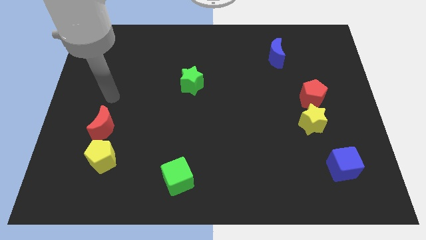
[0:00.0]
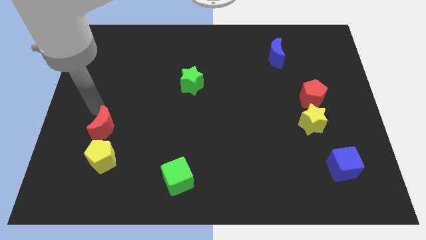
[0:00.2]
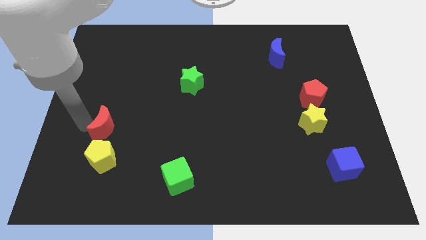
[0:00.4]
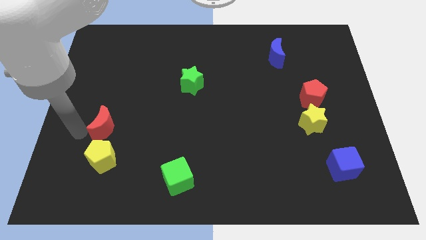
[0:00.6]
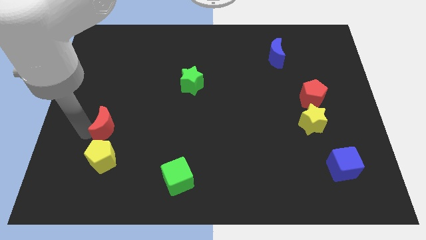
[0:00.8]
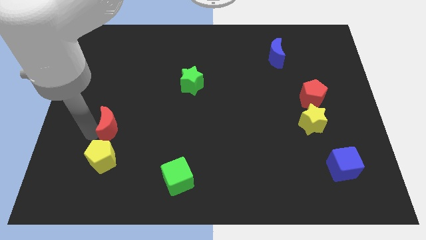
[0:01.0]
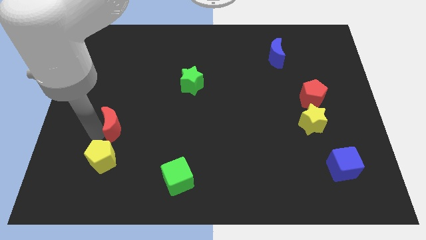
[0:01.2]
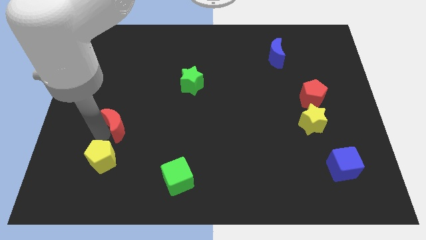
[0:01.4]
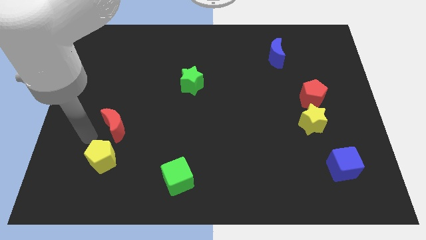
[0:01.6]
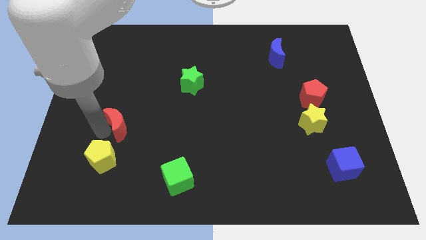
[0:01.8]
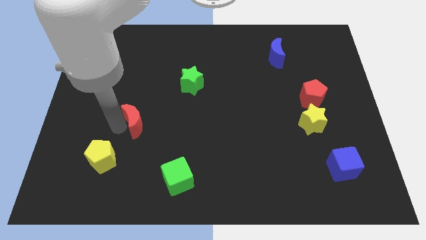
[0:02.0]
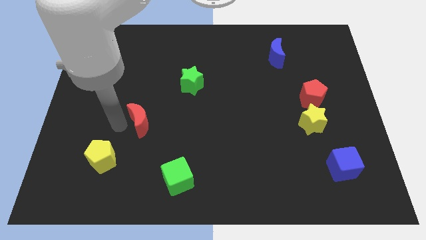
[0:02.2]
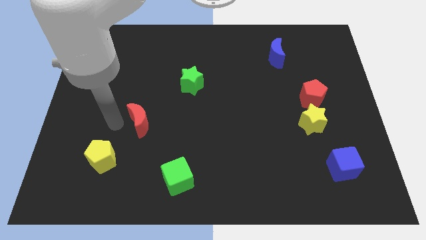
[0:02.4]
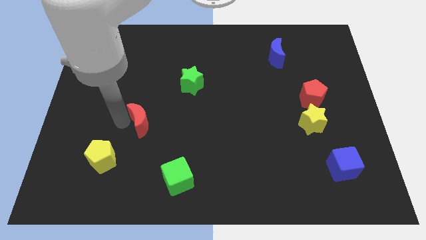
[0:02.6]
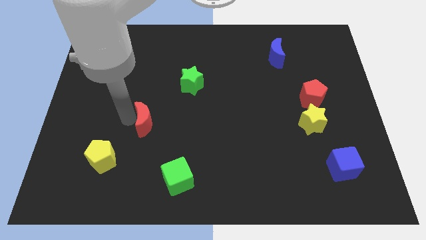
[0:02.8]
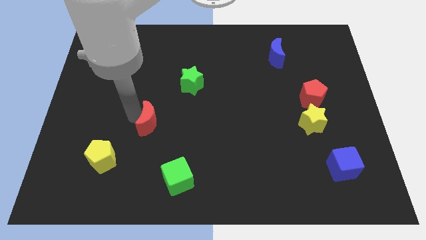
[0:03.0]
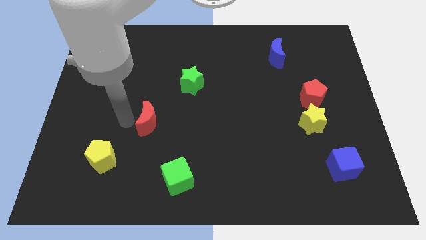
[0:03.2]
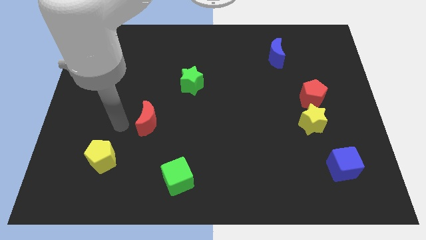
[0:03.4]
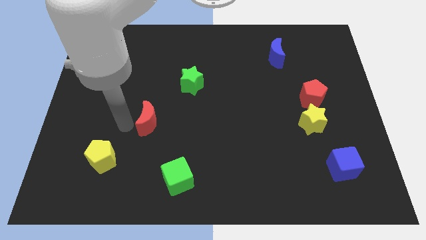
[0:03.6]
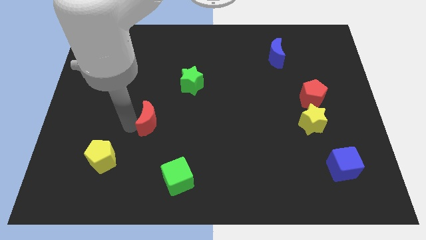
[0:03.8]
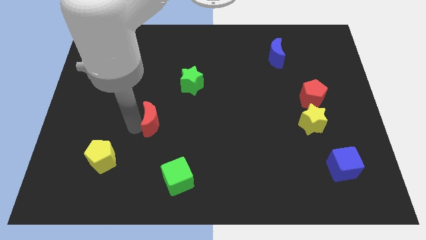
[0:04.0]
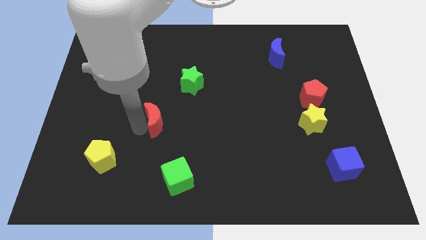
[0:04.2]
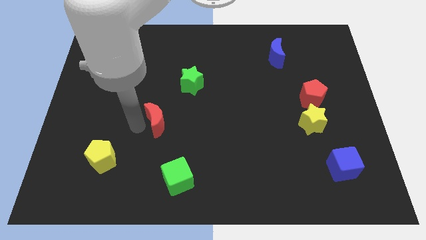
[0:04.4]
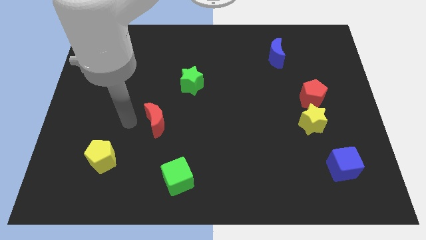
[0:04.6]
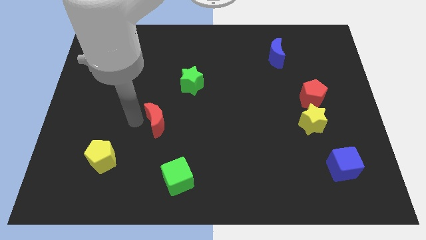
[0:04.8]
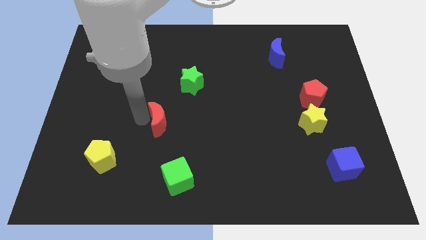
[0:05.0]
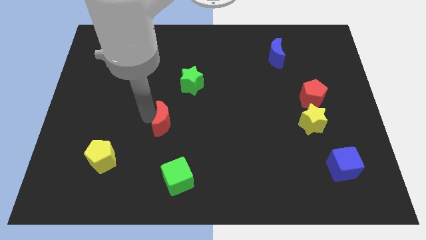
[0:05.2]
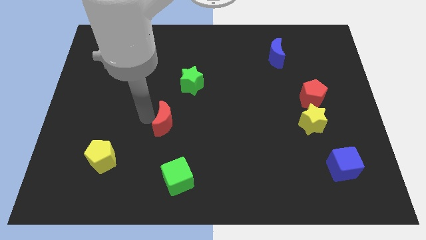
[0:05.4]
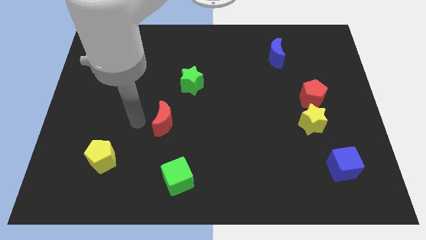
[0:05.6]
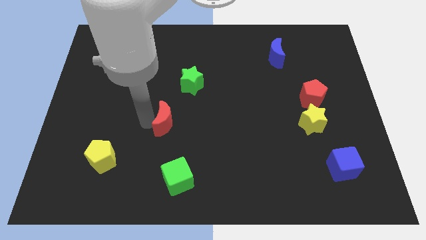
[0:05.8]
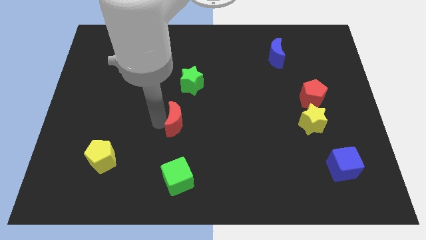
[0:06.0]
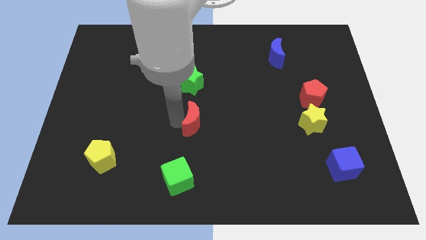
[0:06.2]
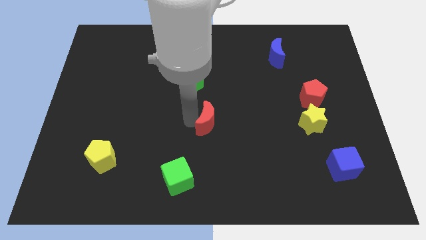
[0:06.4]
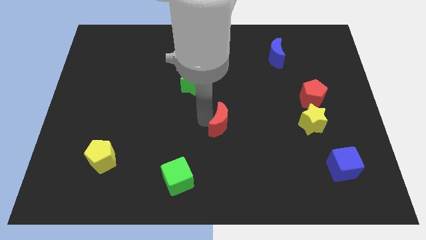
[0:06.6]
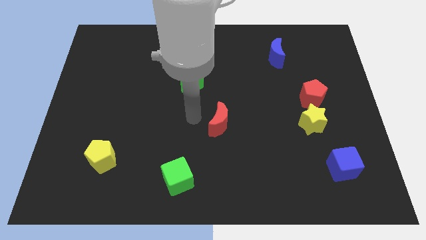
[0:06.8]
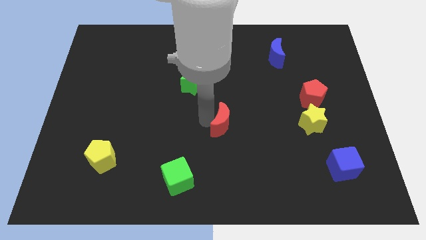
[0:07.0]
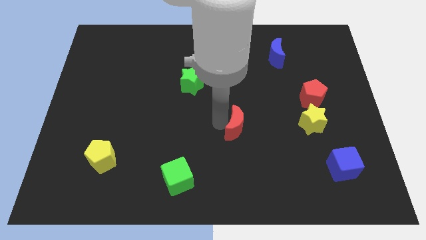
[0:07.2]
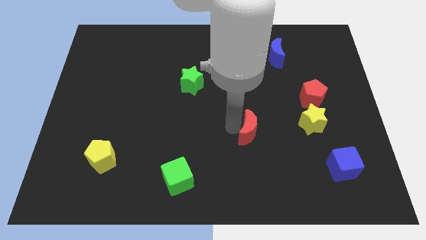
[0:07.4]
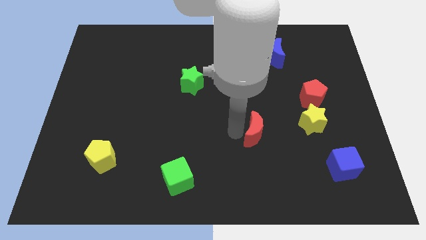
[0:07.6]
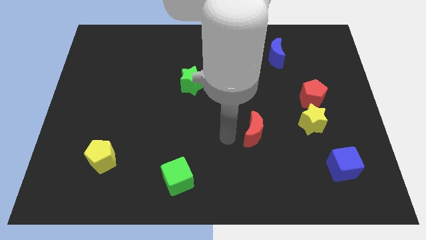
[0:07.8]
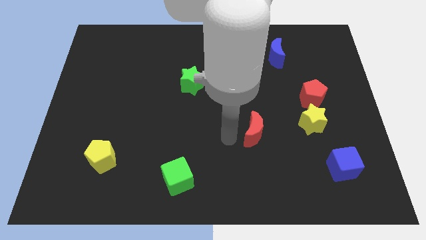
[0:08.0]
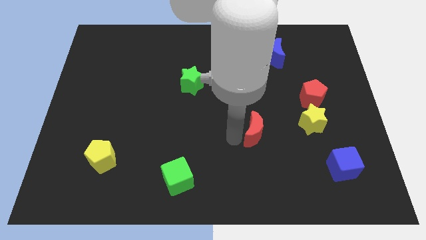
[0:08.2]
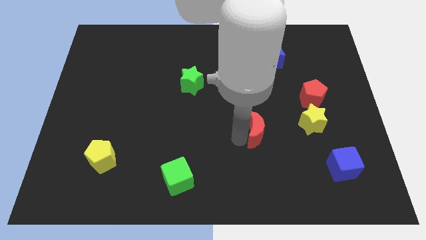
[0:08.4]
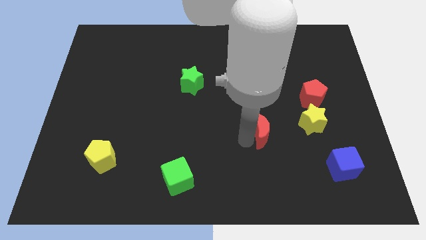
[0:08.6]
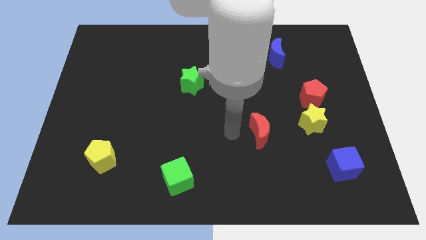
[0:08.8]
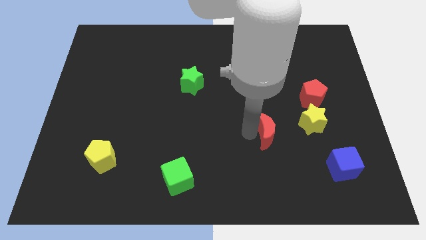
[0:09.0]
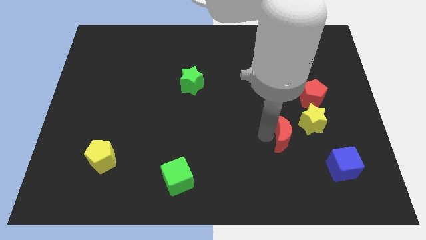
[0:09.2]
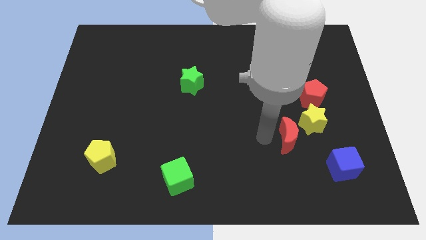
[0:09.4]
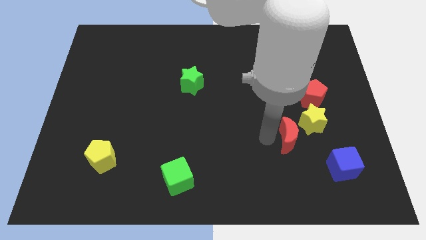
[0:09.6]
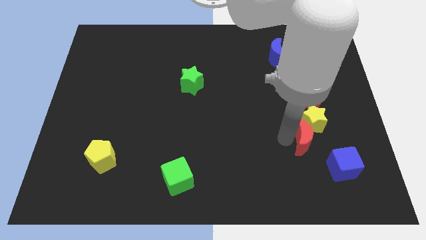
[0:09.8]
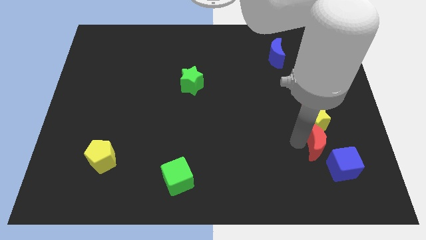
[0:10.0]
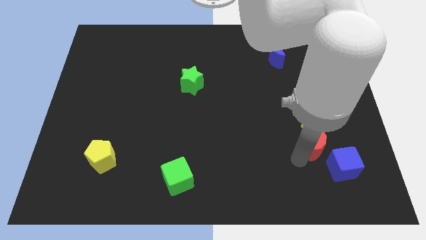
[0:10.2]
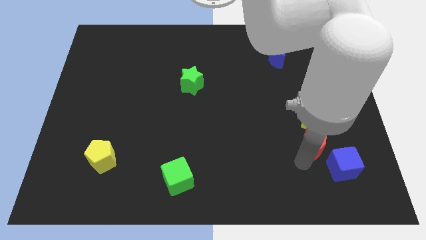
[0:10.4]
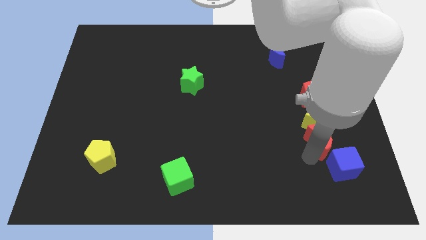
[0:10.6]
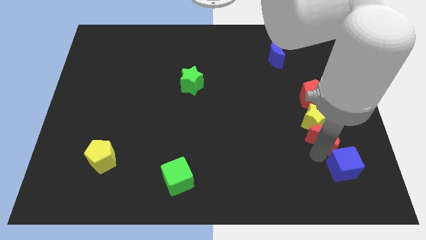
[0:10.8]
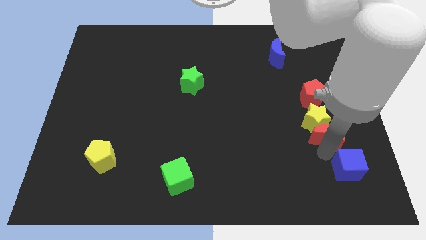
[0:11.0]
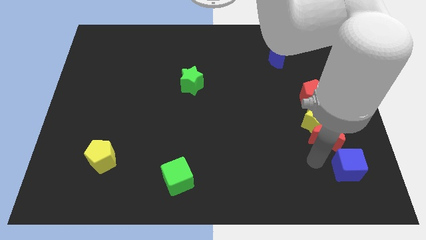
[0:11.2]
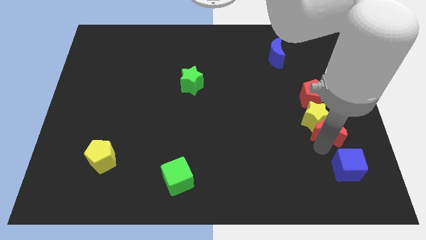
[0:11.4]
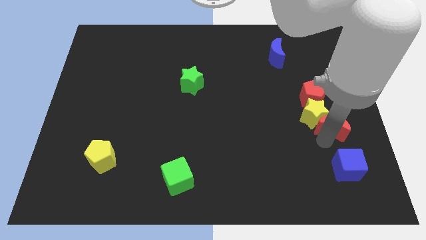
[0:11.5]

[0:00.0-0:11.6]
put the red moon to the bottom right side of the red pentagon
